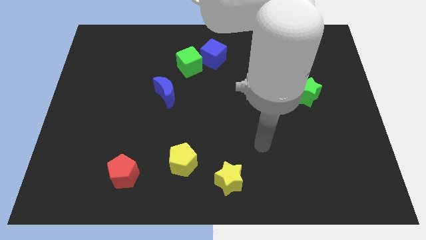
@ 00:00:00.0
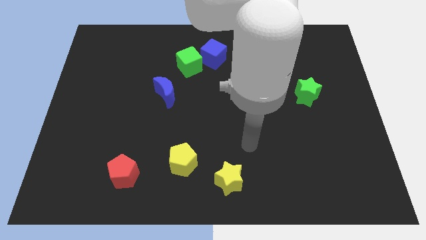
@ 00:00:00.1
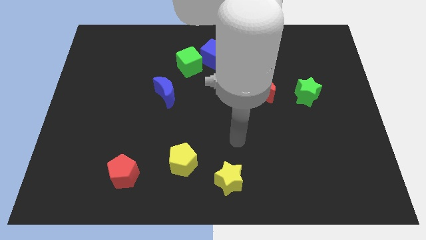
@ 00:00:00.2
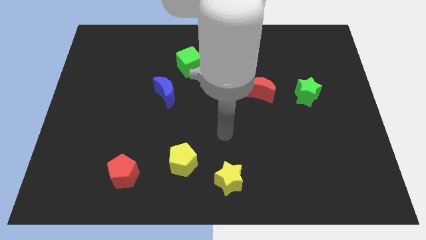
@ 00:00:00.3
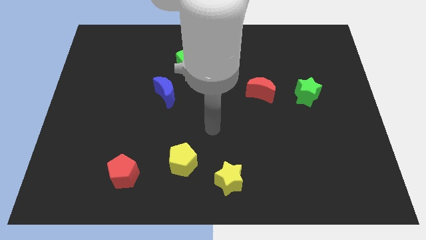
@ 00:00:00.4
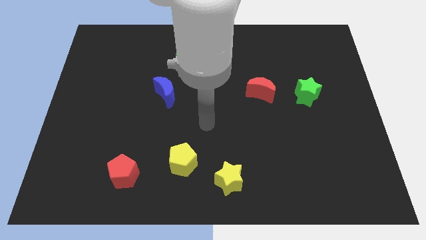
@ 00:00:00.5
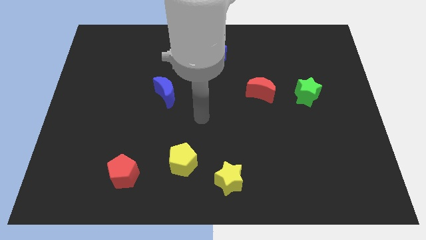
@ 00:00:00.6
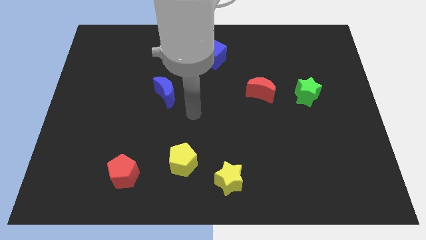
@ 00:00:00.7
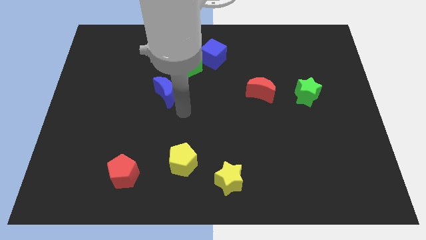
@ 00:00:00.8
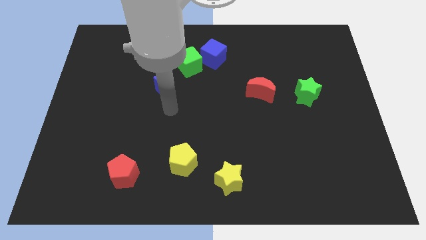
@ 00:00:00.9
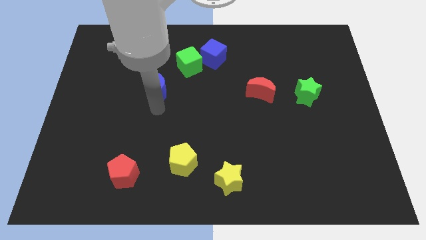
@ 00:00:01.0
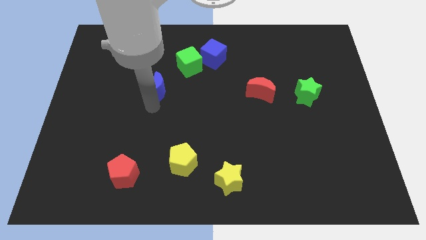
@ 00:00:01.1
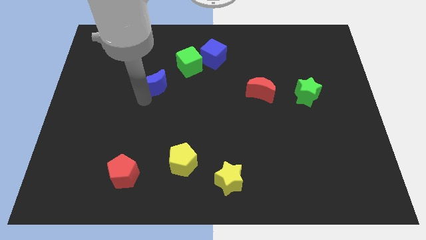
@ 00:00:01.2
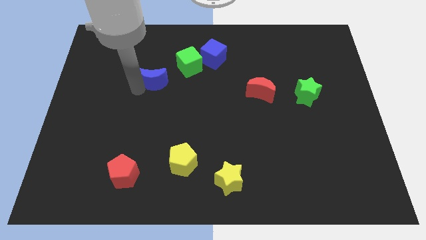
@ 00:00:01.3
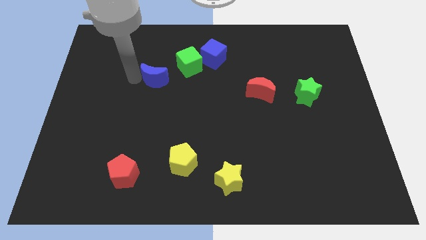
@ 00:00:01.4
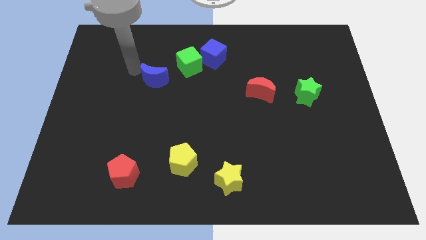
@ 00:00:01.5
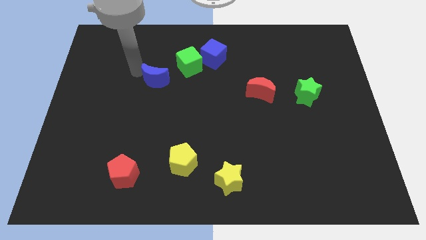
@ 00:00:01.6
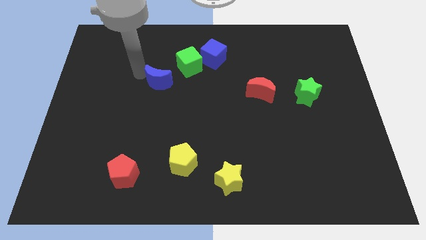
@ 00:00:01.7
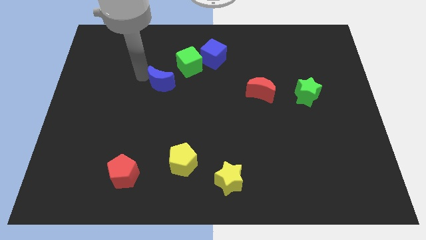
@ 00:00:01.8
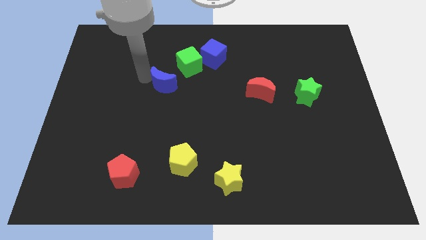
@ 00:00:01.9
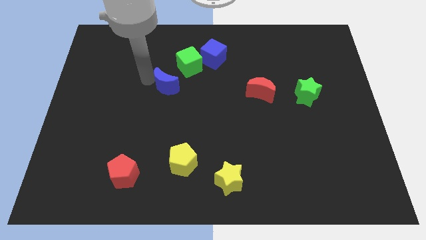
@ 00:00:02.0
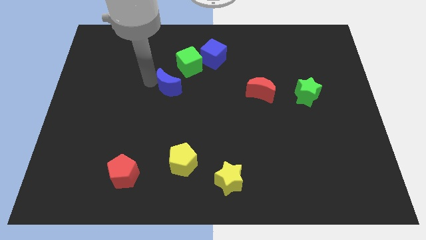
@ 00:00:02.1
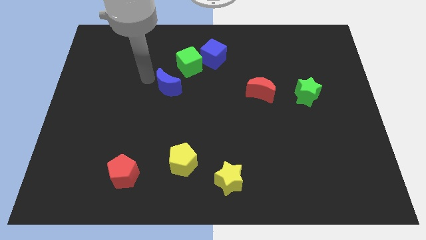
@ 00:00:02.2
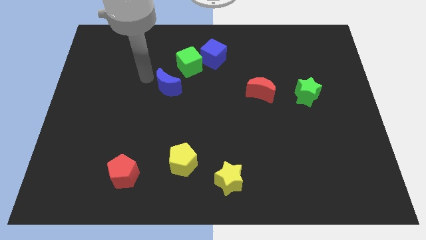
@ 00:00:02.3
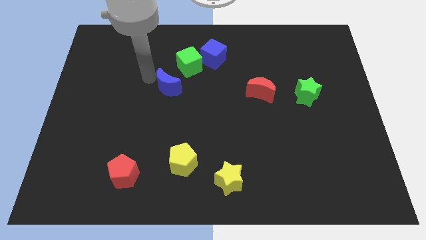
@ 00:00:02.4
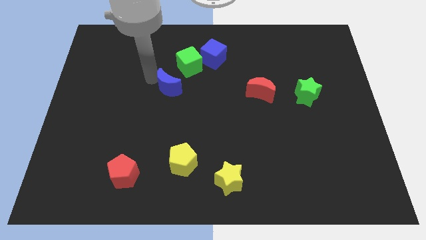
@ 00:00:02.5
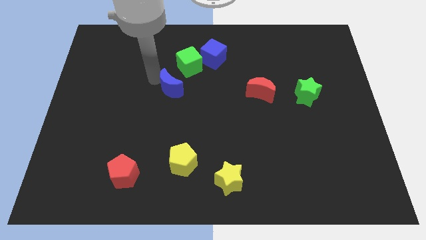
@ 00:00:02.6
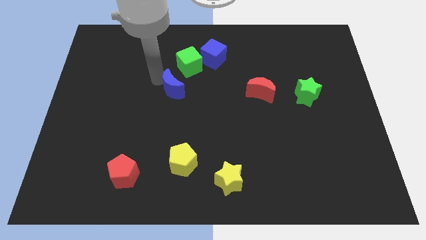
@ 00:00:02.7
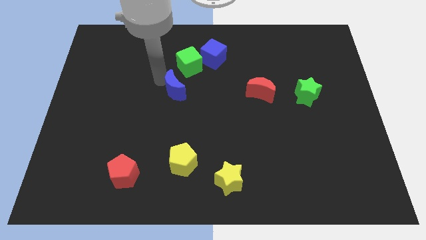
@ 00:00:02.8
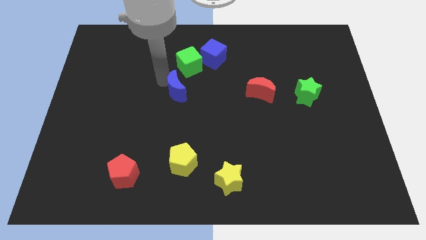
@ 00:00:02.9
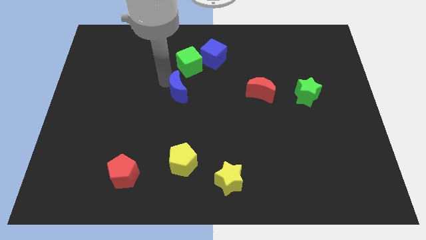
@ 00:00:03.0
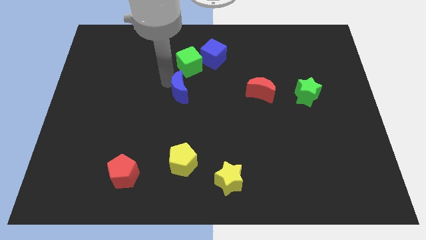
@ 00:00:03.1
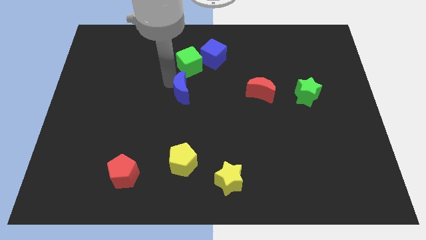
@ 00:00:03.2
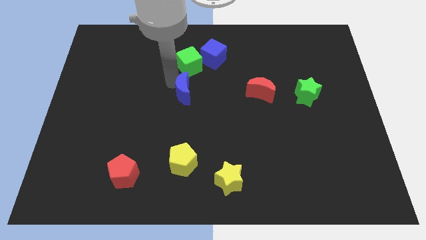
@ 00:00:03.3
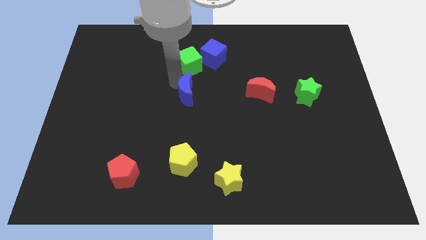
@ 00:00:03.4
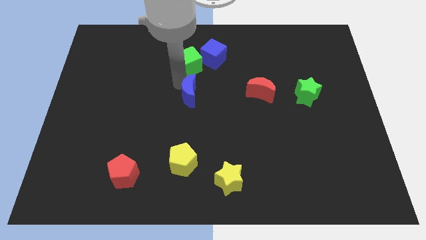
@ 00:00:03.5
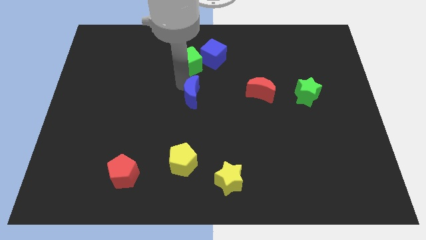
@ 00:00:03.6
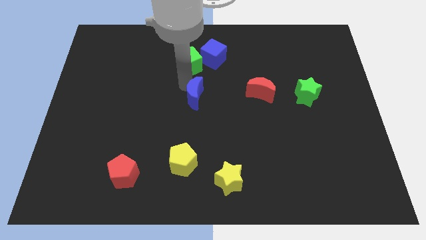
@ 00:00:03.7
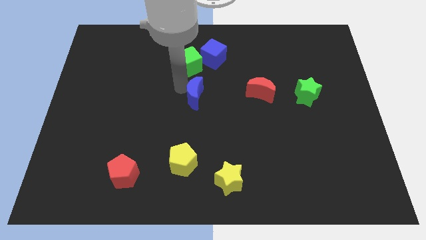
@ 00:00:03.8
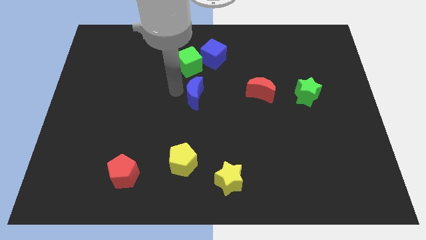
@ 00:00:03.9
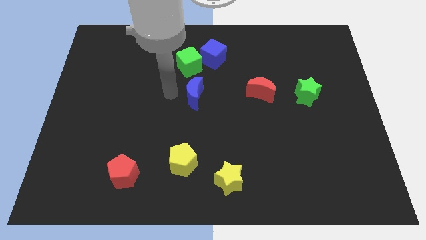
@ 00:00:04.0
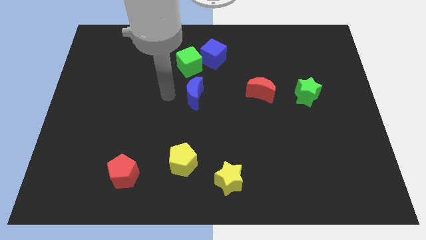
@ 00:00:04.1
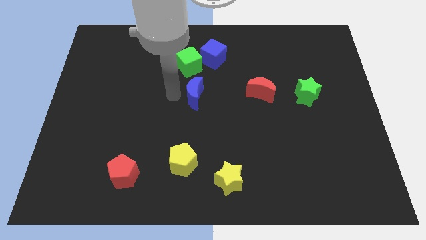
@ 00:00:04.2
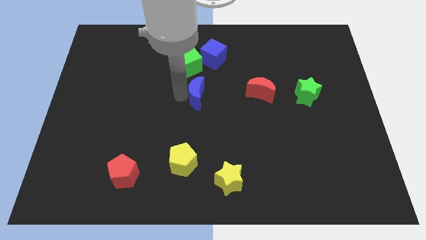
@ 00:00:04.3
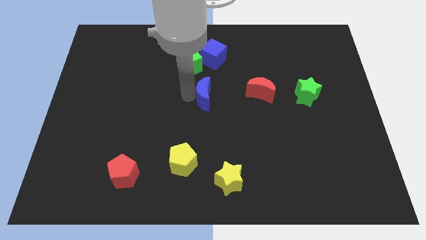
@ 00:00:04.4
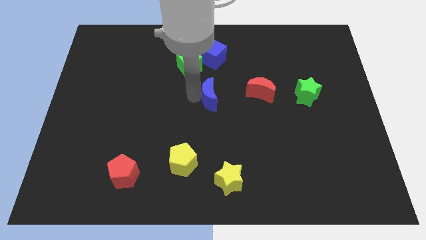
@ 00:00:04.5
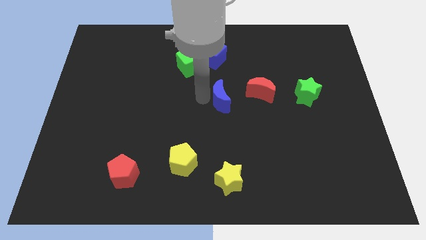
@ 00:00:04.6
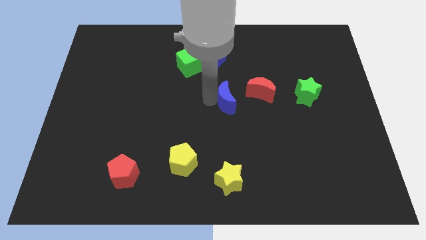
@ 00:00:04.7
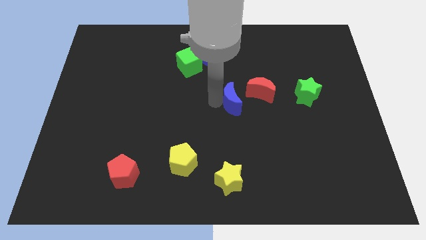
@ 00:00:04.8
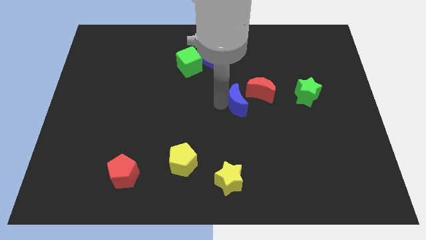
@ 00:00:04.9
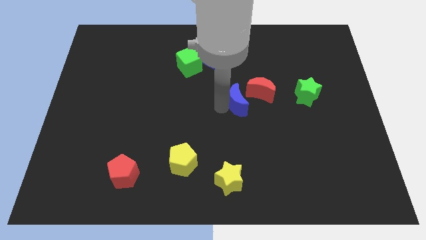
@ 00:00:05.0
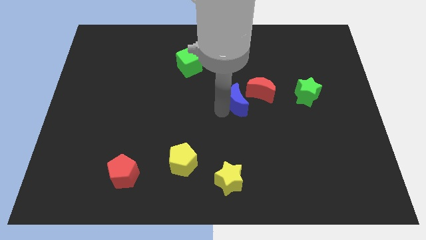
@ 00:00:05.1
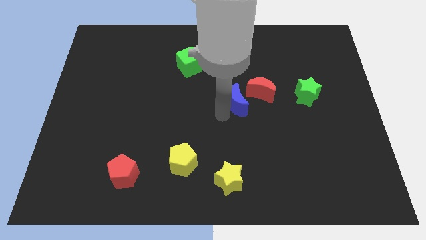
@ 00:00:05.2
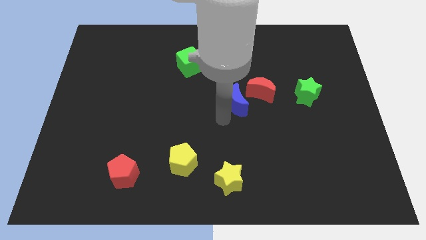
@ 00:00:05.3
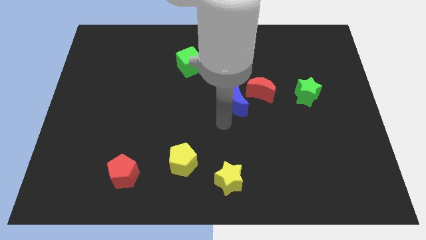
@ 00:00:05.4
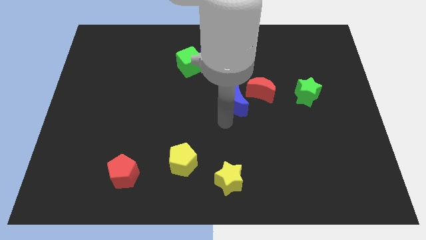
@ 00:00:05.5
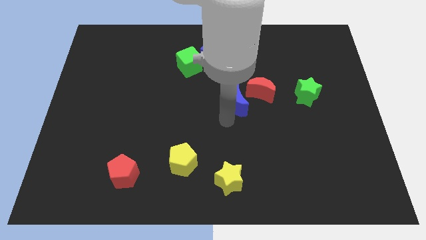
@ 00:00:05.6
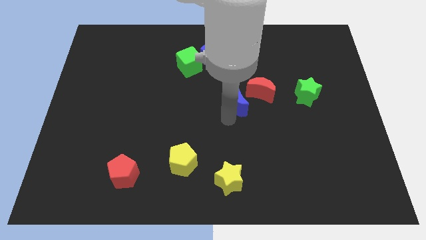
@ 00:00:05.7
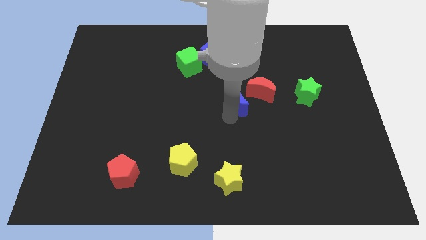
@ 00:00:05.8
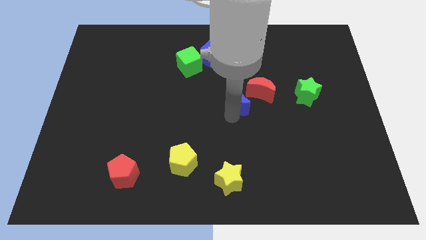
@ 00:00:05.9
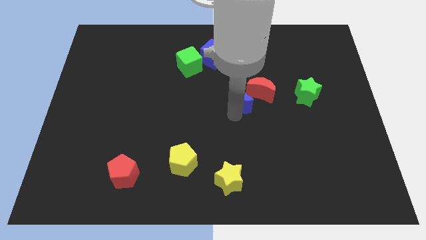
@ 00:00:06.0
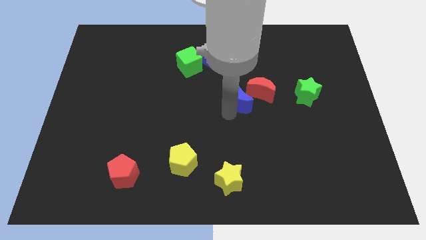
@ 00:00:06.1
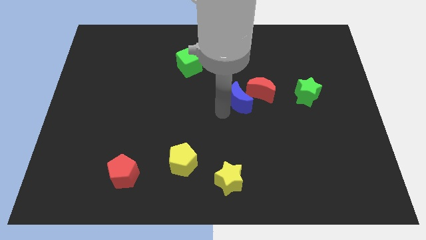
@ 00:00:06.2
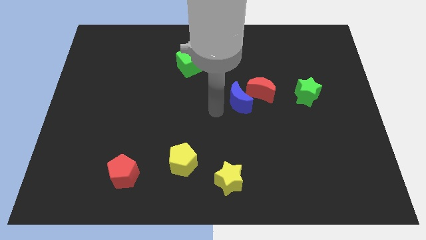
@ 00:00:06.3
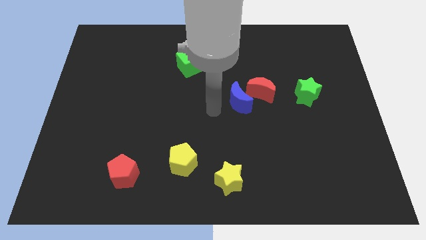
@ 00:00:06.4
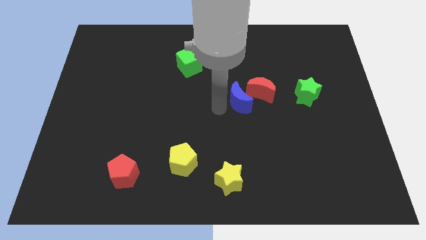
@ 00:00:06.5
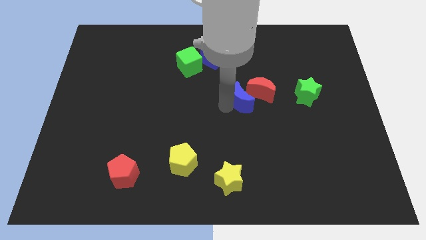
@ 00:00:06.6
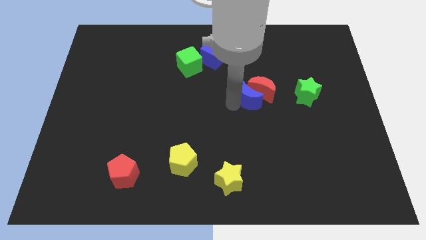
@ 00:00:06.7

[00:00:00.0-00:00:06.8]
push the blue moon to the left side of the green star
